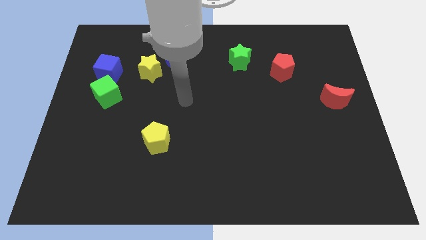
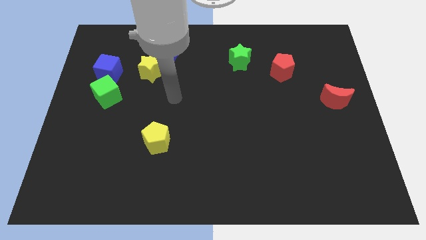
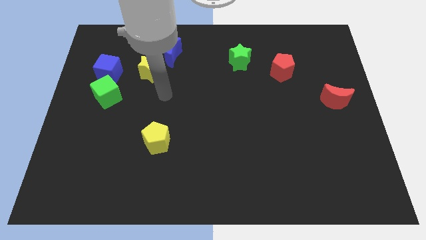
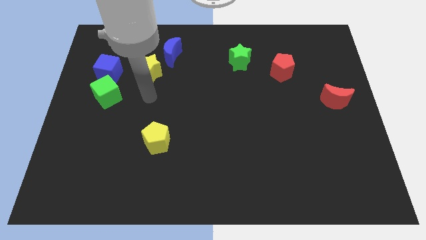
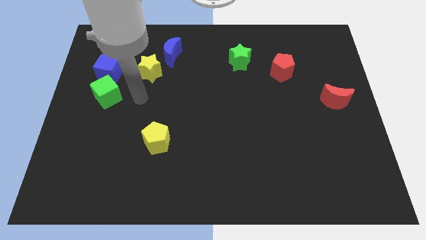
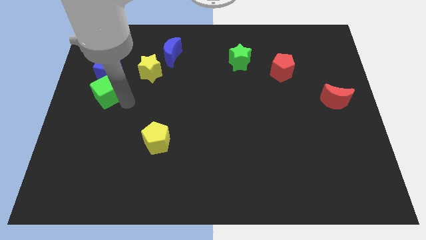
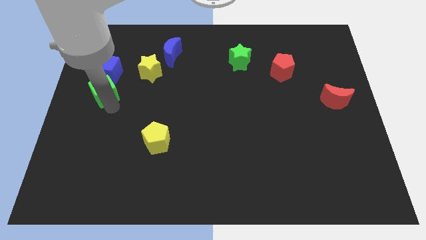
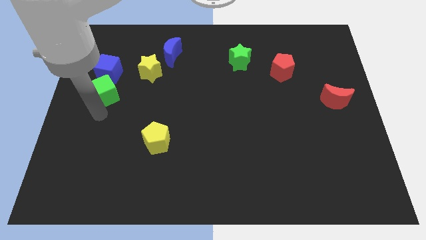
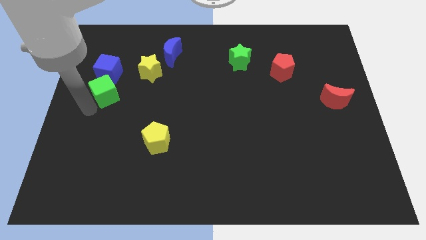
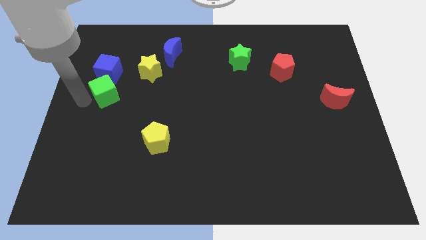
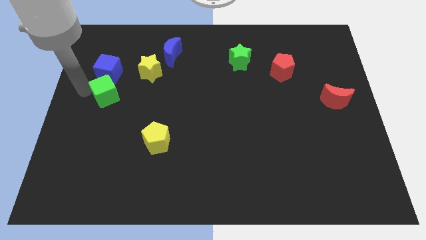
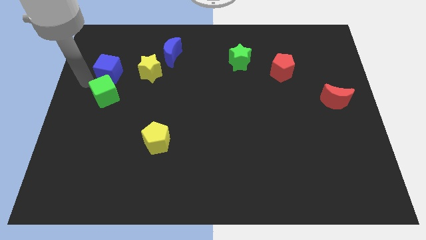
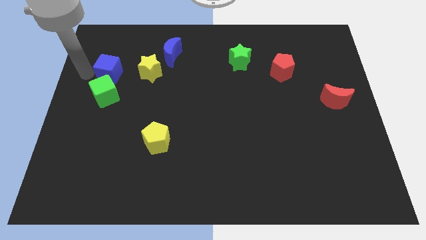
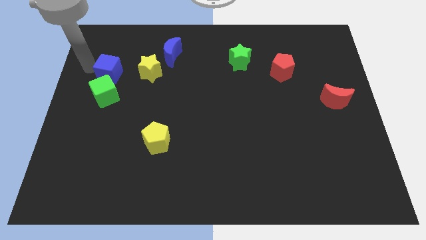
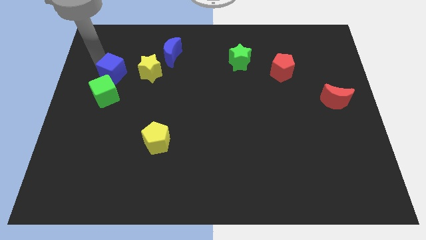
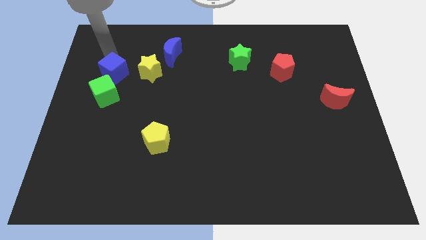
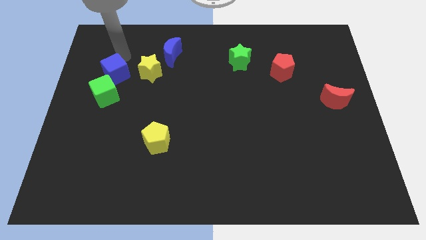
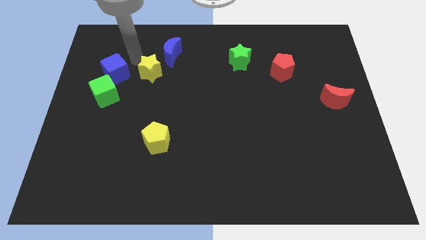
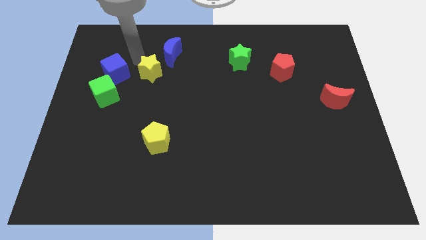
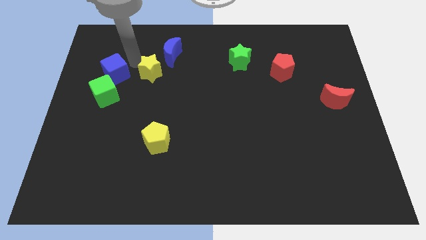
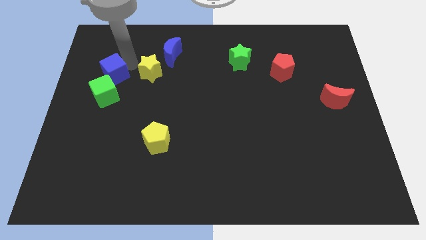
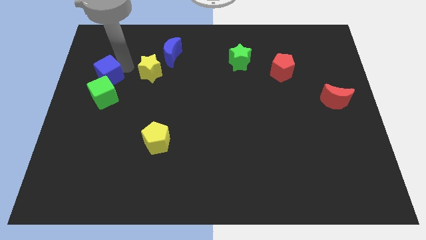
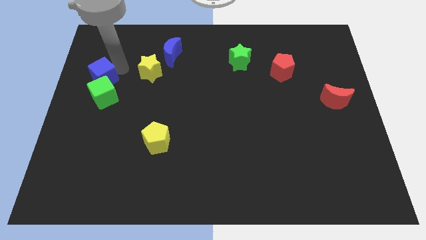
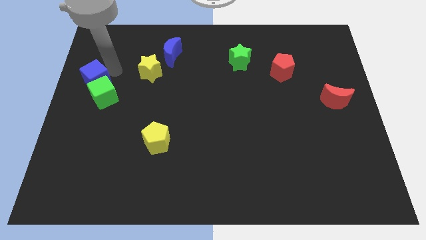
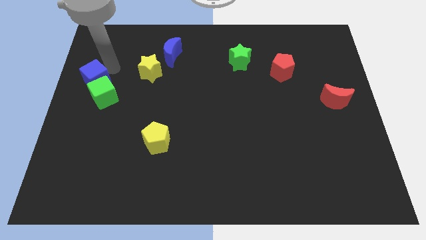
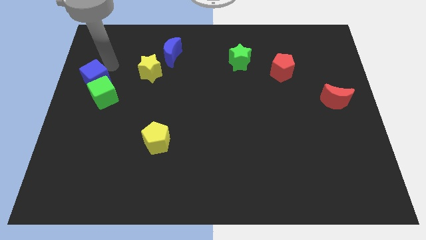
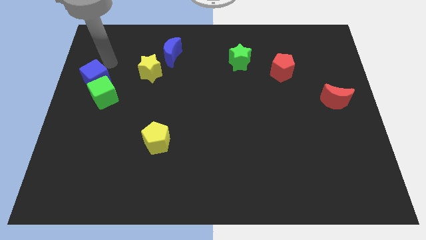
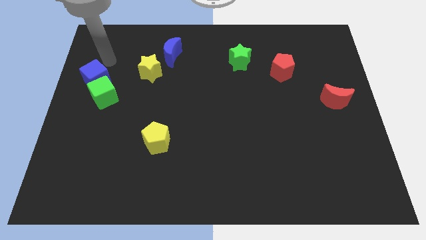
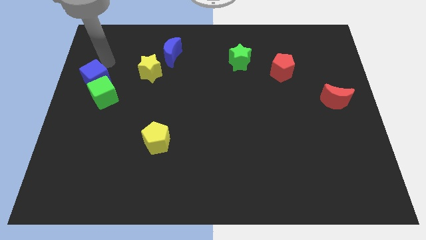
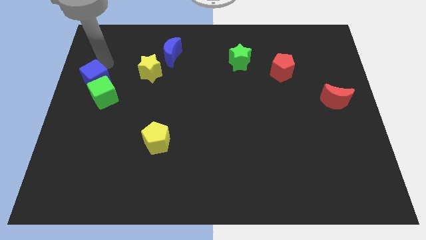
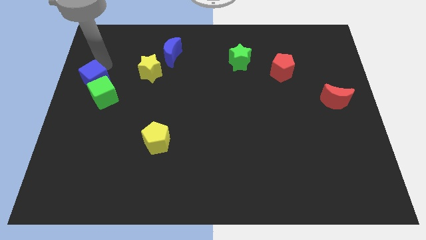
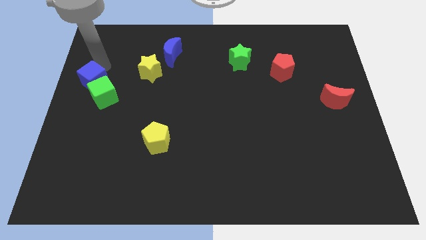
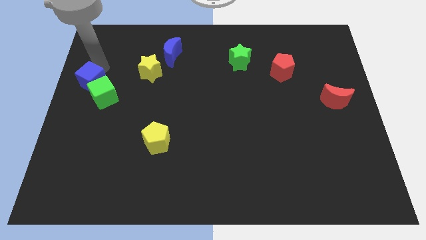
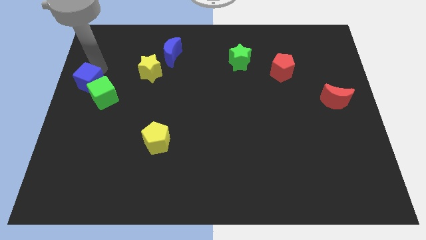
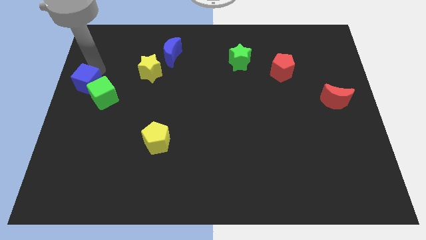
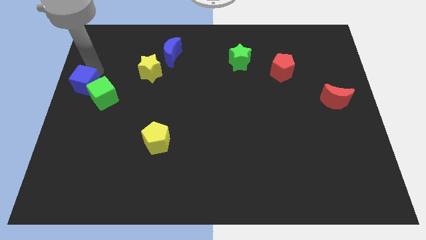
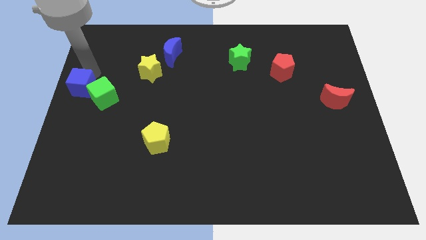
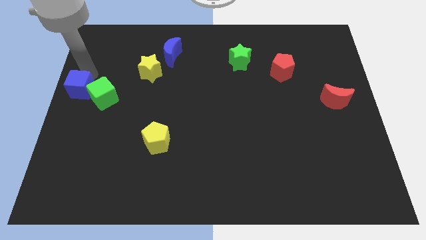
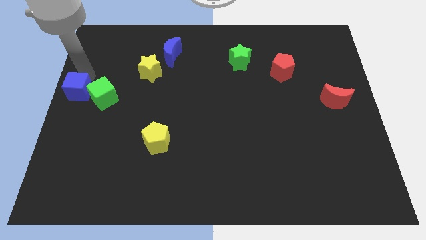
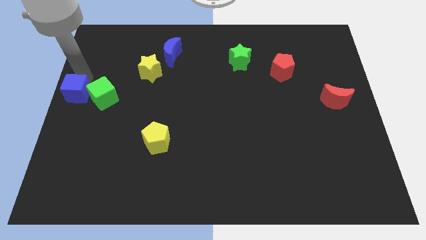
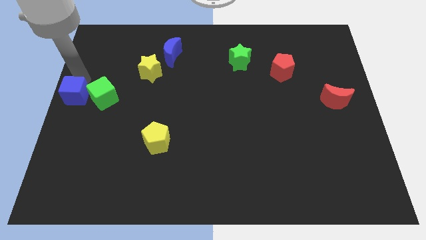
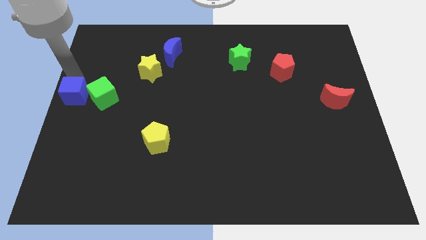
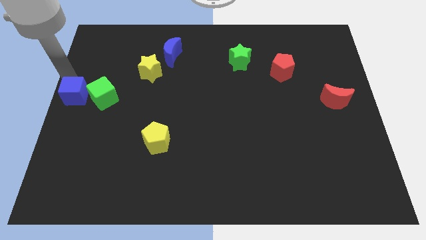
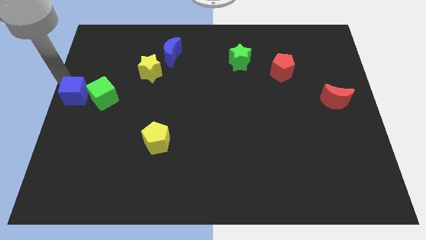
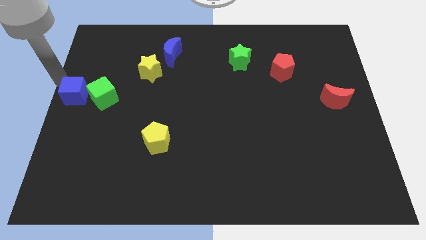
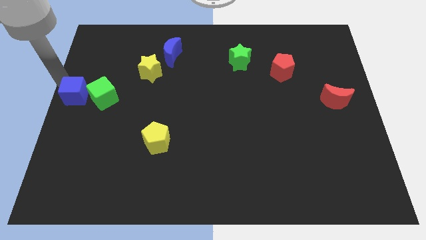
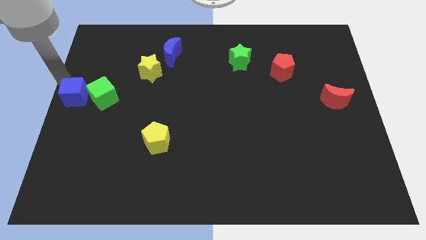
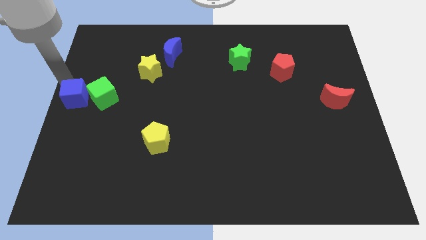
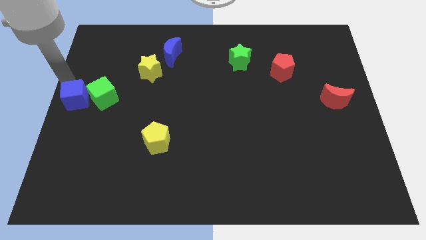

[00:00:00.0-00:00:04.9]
push the blue cube somewhat downwards

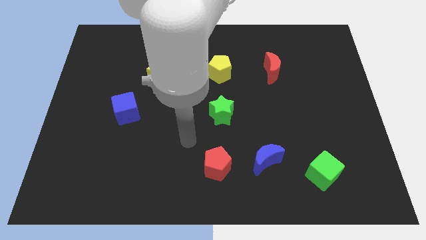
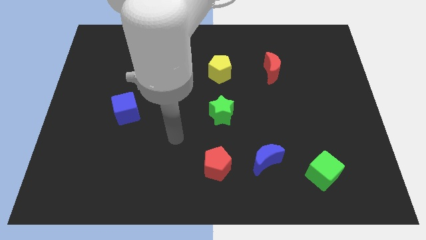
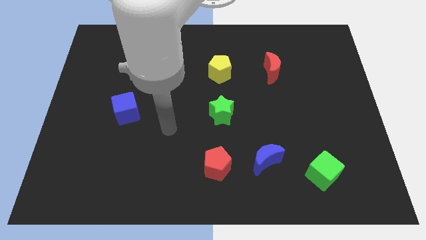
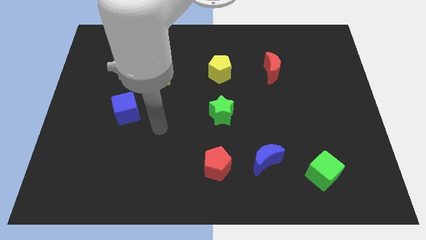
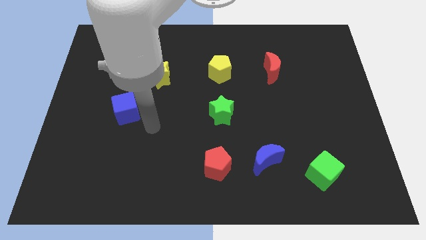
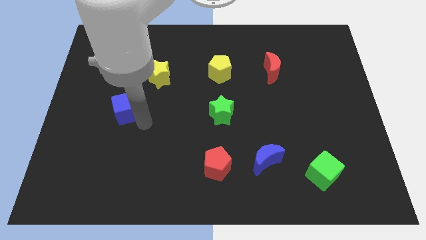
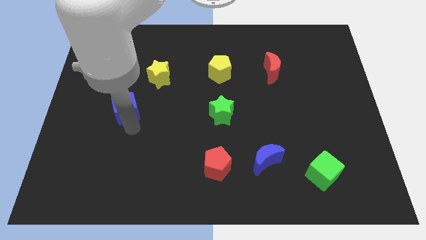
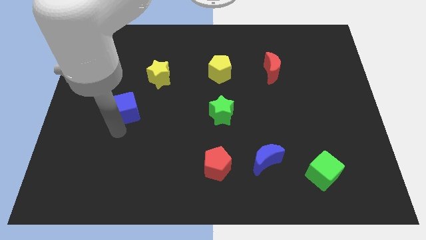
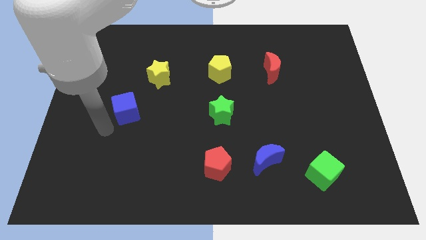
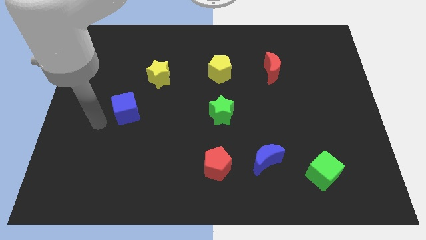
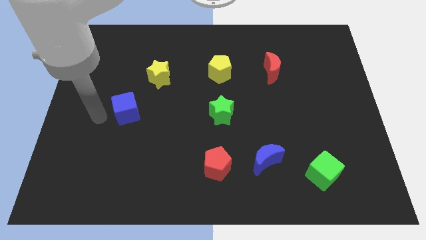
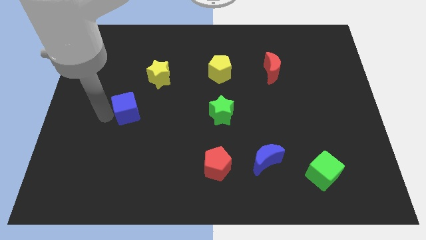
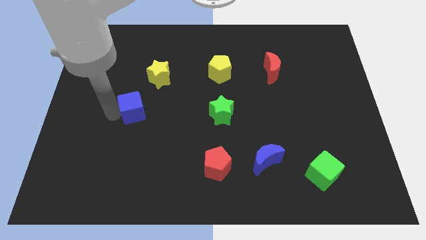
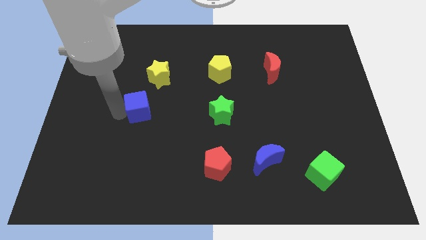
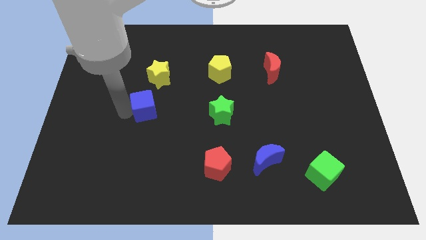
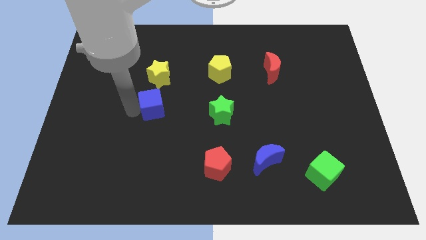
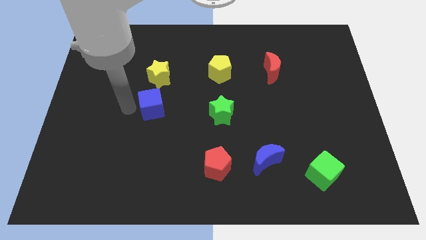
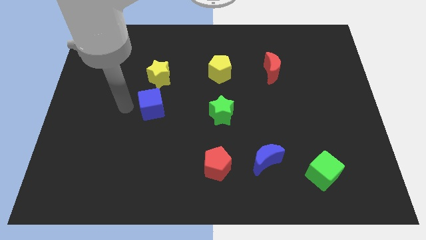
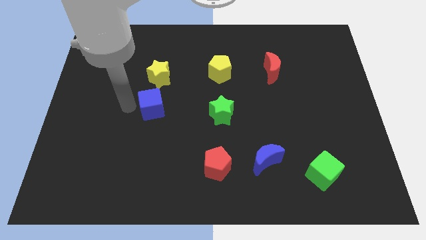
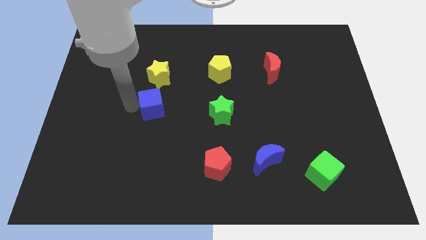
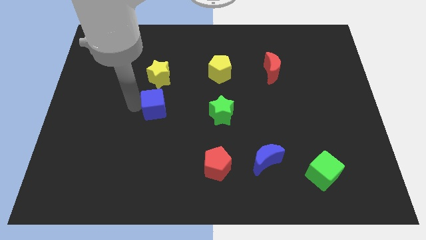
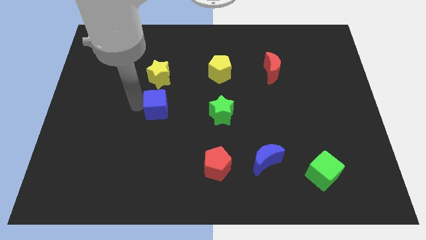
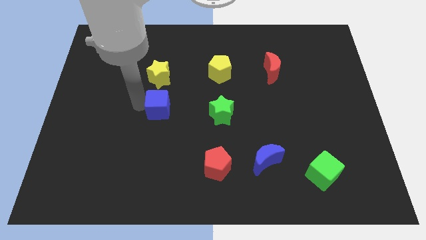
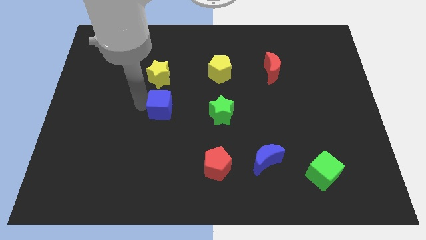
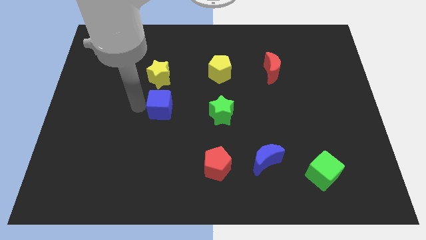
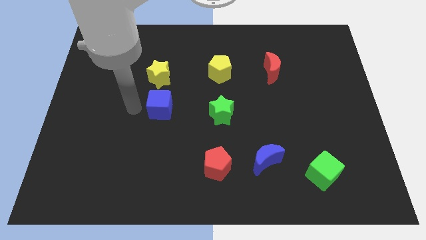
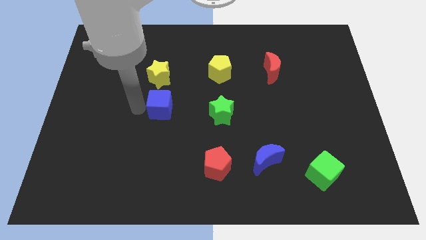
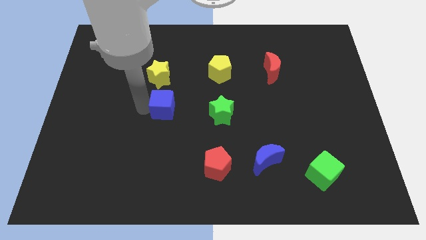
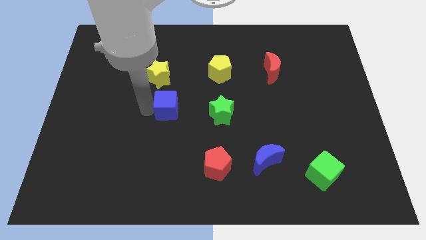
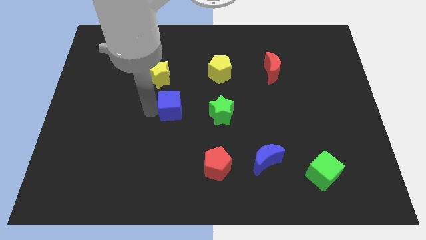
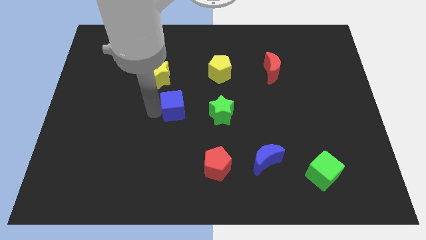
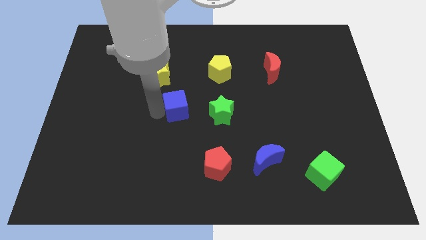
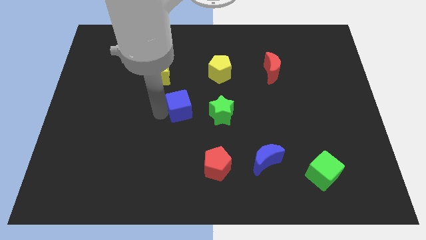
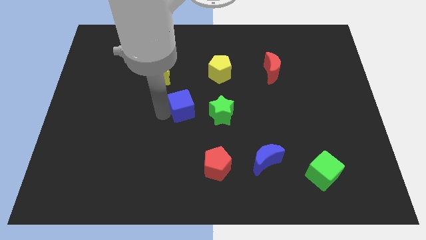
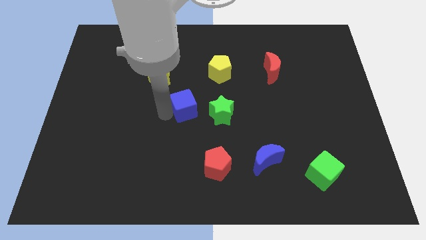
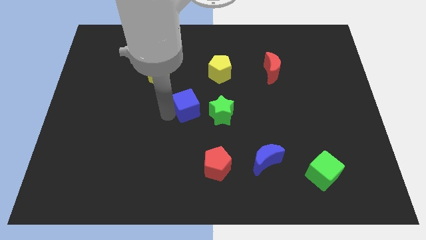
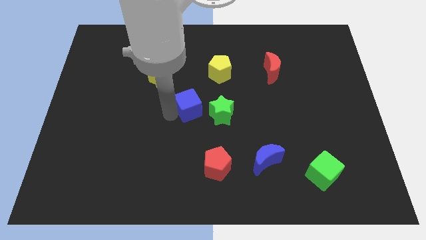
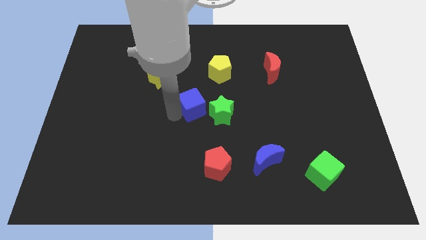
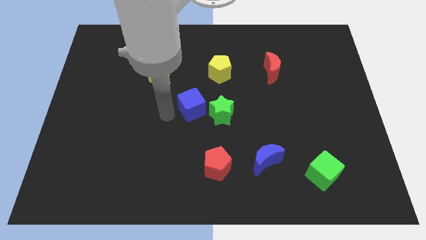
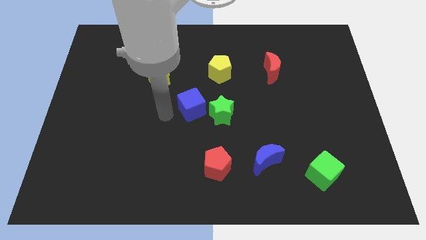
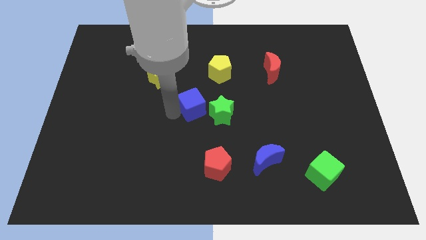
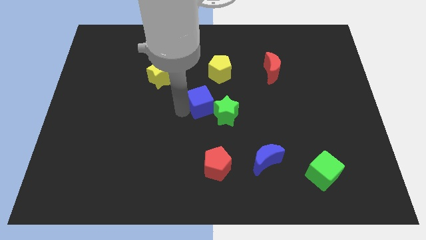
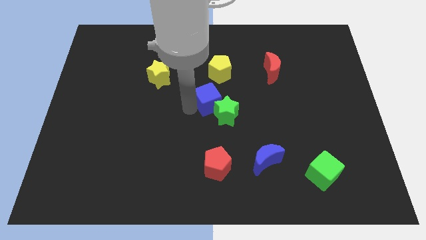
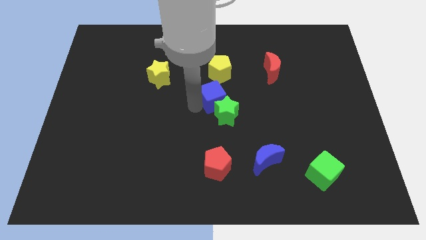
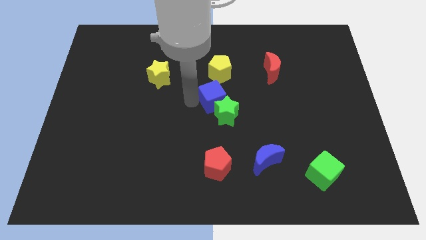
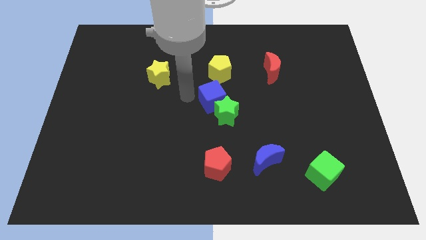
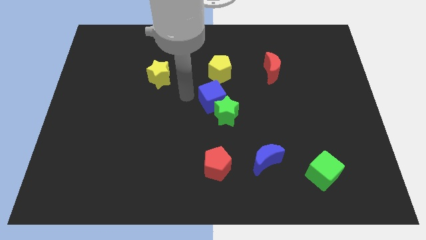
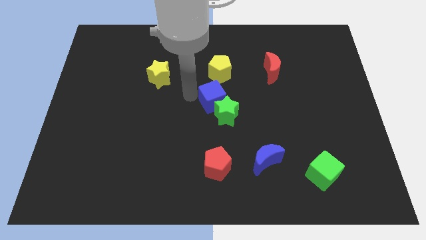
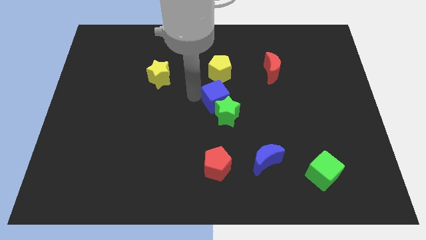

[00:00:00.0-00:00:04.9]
push the blue cube to the right
